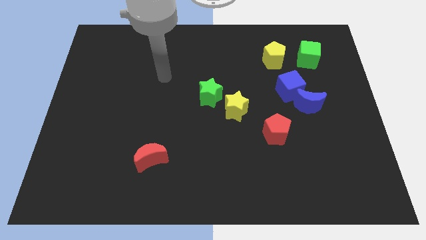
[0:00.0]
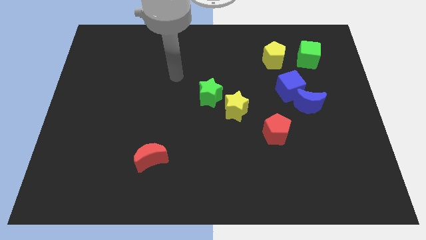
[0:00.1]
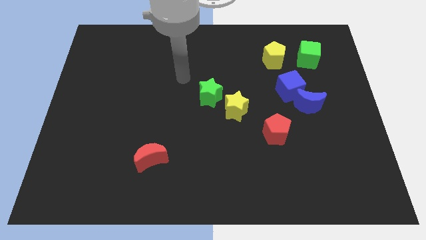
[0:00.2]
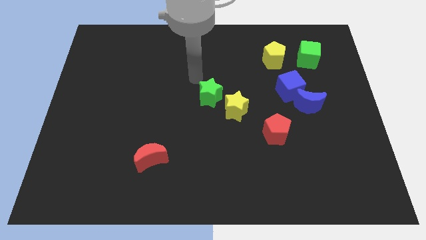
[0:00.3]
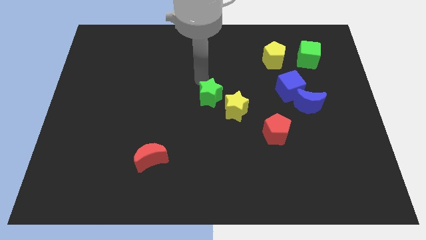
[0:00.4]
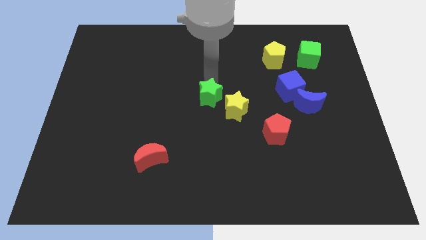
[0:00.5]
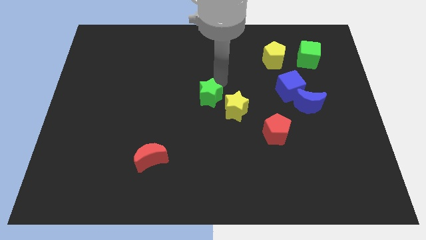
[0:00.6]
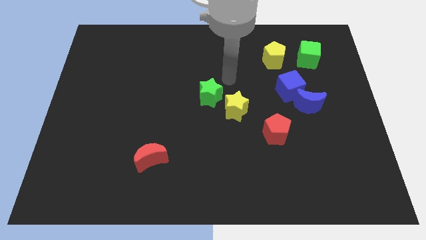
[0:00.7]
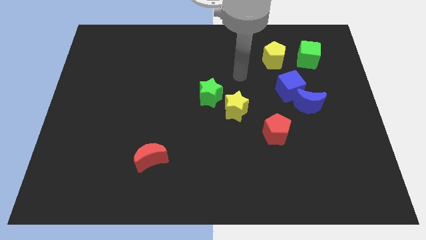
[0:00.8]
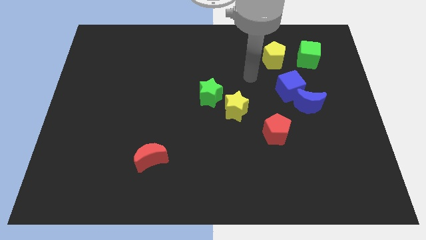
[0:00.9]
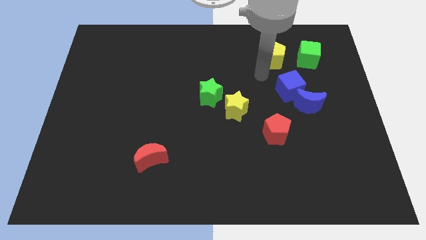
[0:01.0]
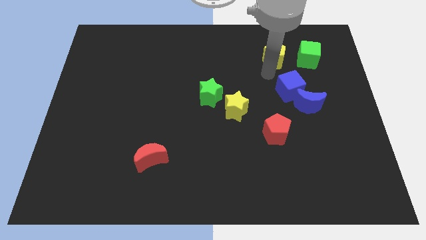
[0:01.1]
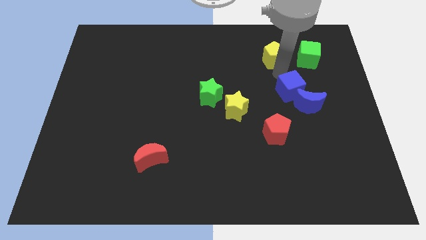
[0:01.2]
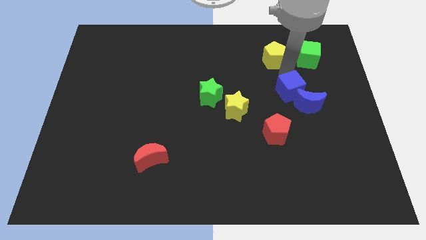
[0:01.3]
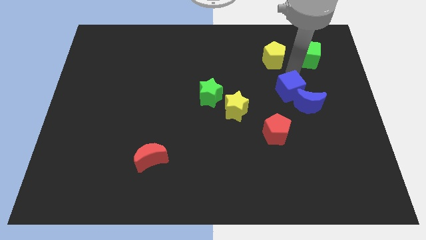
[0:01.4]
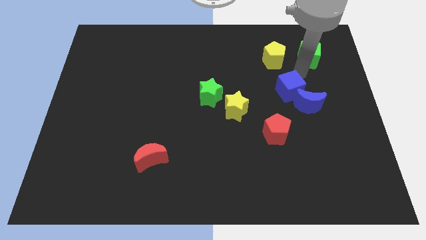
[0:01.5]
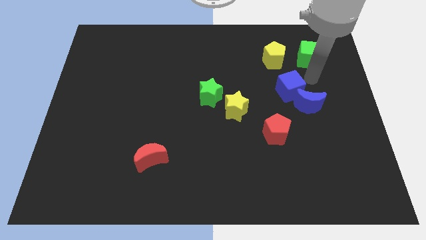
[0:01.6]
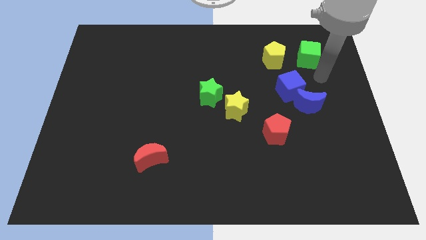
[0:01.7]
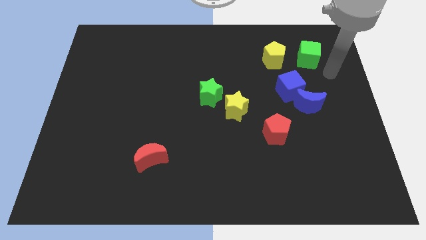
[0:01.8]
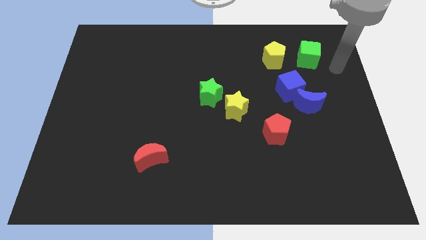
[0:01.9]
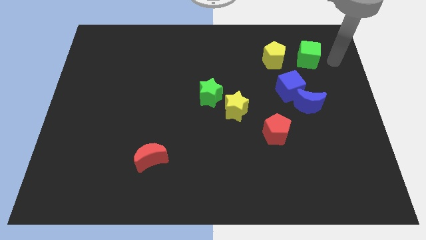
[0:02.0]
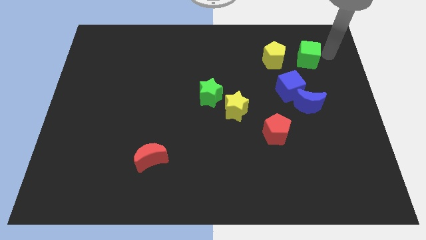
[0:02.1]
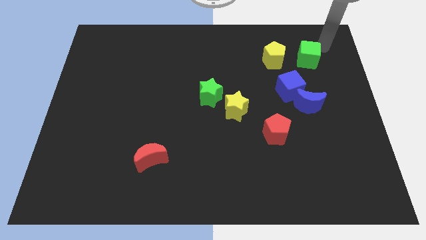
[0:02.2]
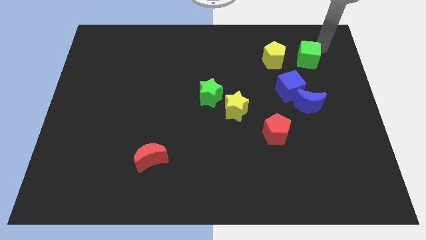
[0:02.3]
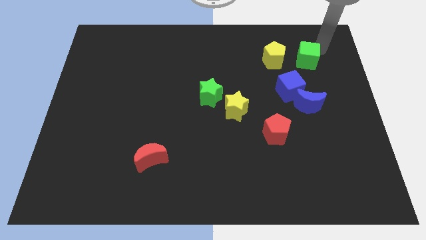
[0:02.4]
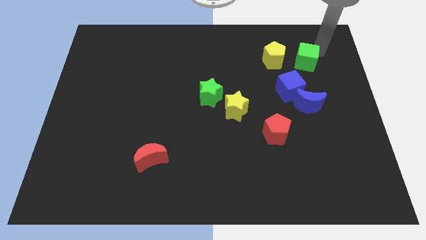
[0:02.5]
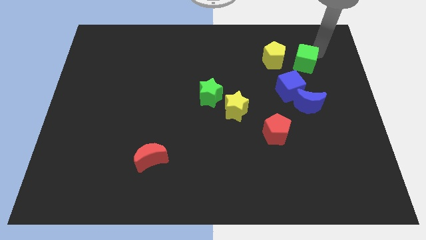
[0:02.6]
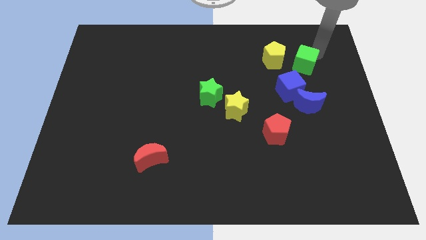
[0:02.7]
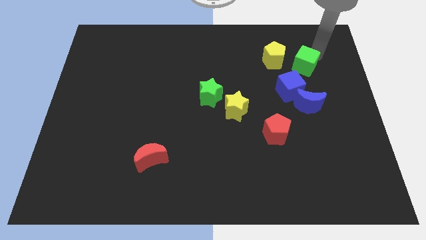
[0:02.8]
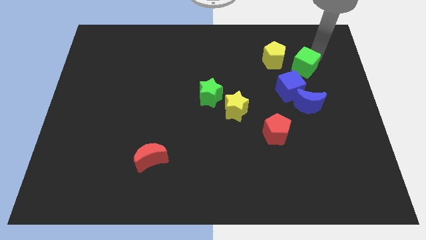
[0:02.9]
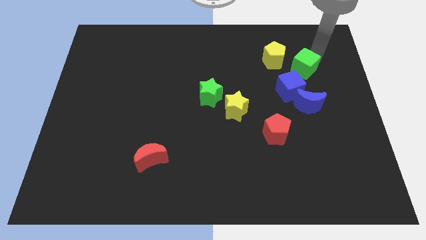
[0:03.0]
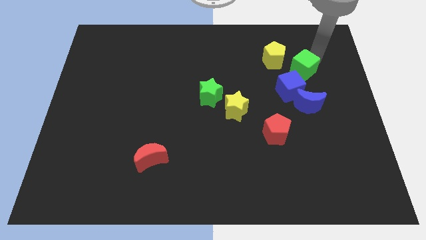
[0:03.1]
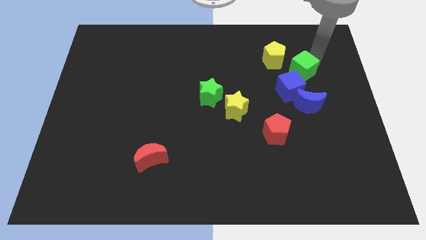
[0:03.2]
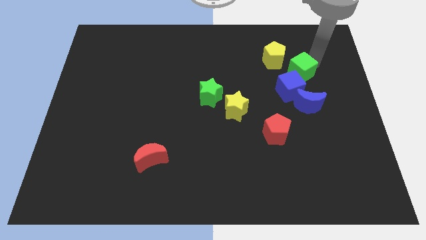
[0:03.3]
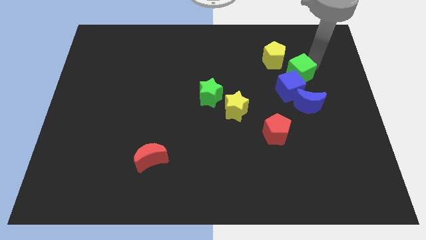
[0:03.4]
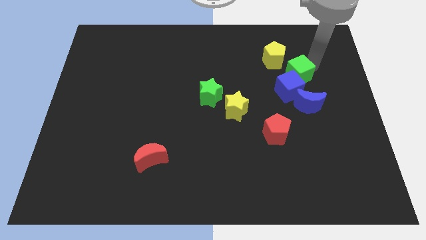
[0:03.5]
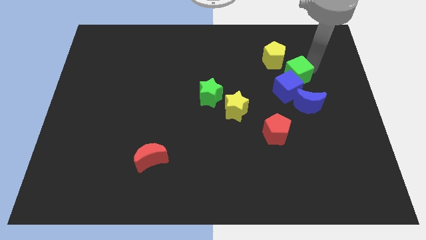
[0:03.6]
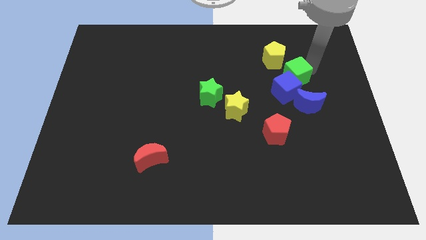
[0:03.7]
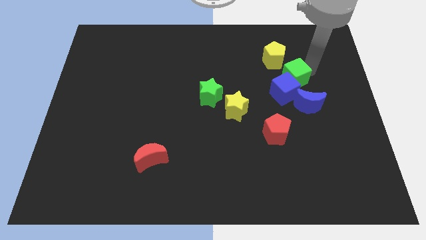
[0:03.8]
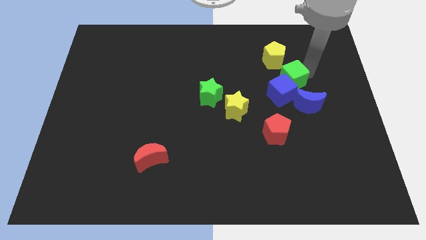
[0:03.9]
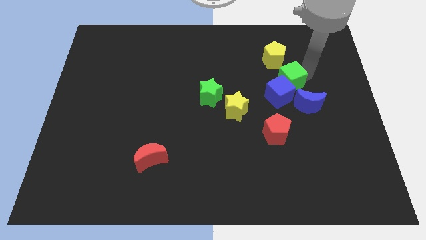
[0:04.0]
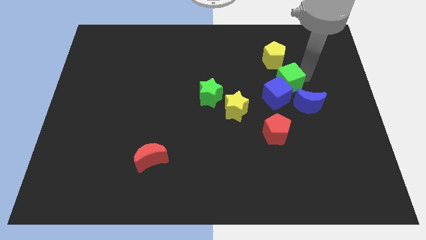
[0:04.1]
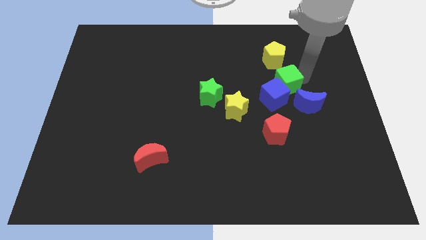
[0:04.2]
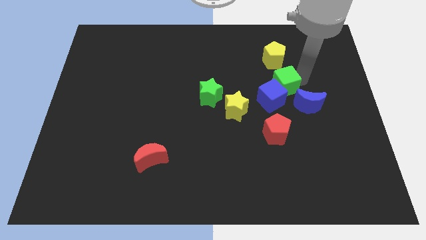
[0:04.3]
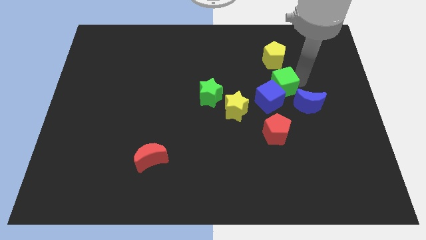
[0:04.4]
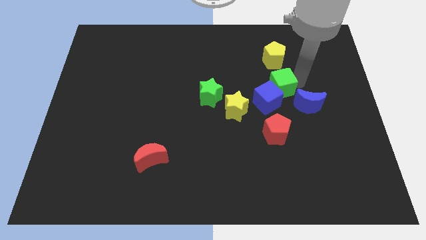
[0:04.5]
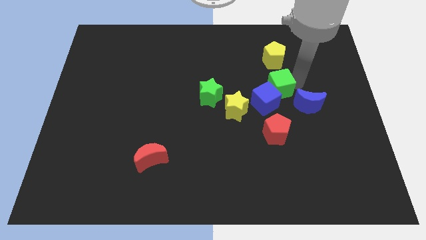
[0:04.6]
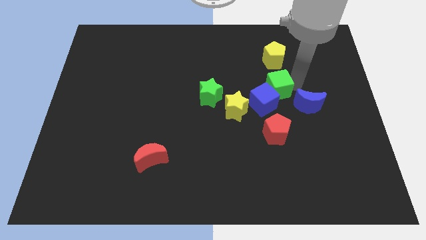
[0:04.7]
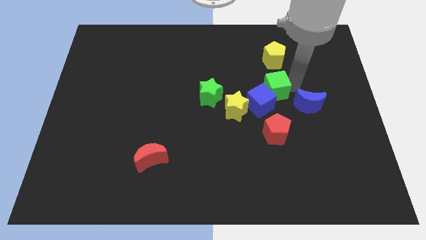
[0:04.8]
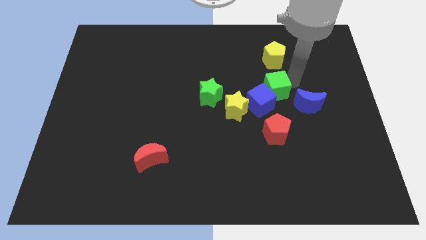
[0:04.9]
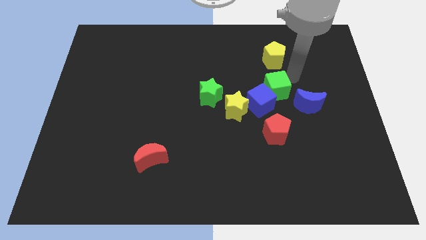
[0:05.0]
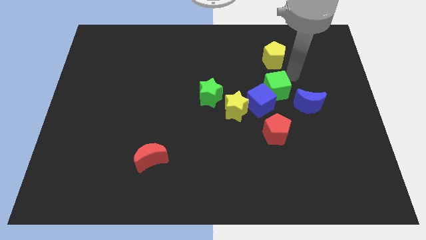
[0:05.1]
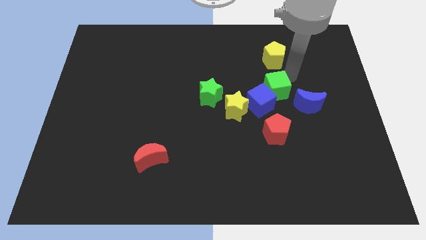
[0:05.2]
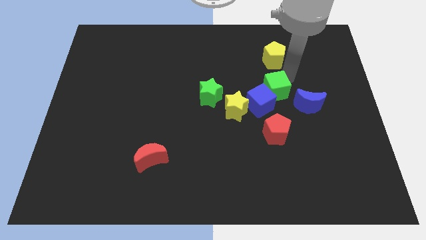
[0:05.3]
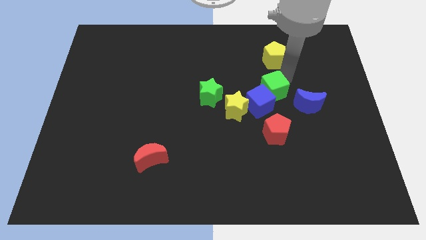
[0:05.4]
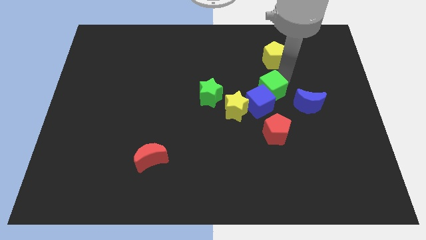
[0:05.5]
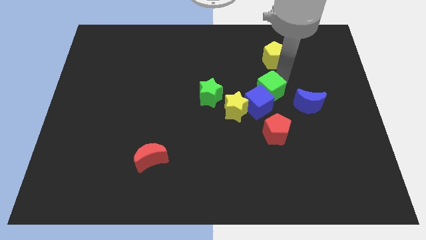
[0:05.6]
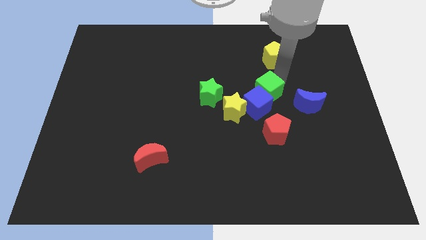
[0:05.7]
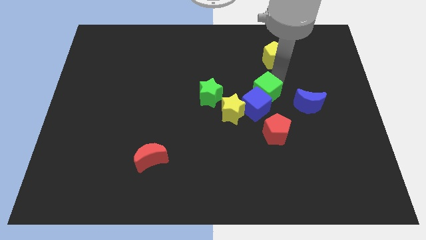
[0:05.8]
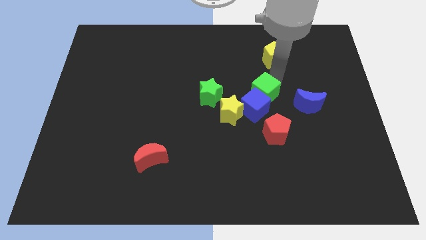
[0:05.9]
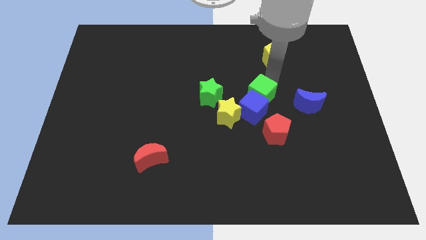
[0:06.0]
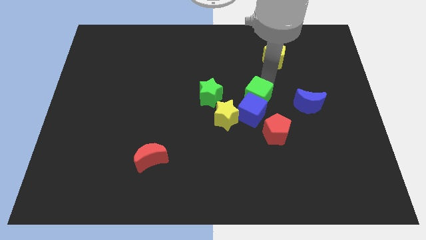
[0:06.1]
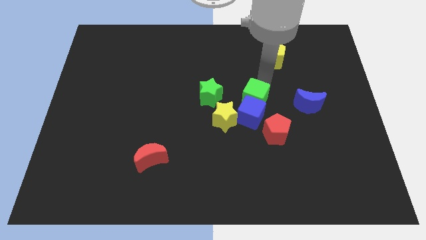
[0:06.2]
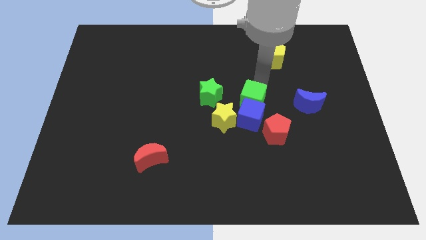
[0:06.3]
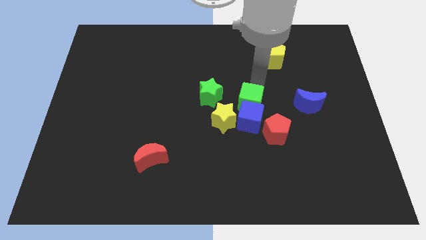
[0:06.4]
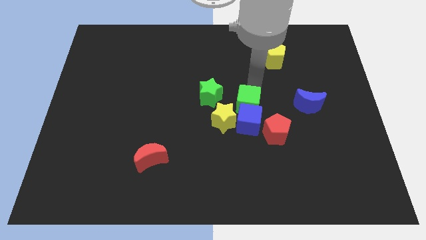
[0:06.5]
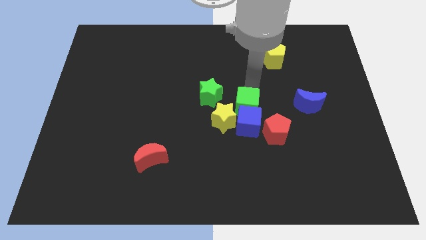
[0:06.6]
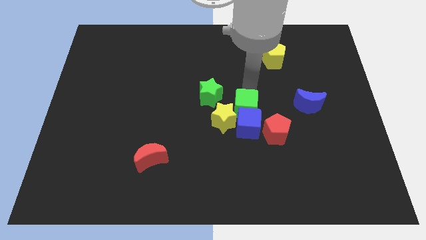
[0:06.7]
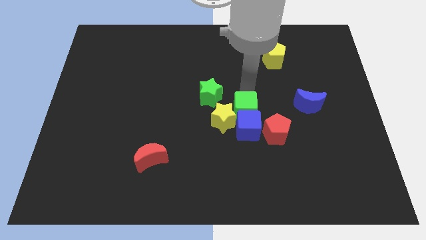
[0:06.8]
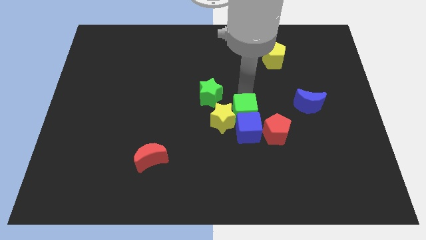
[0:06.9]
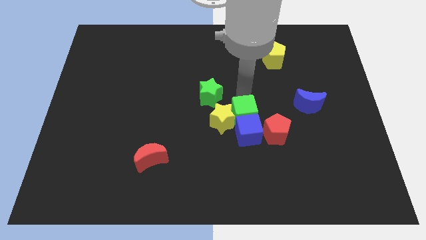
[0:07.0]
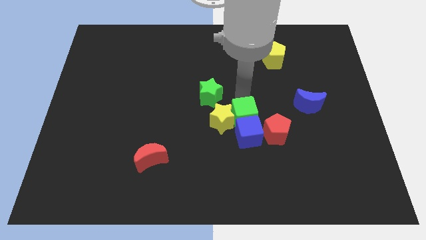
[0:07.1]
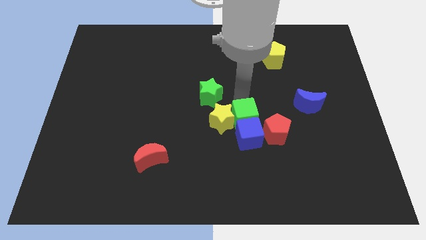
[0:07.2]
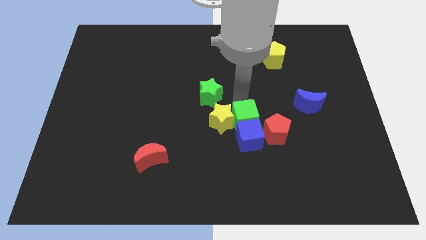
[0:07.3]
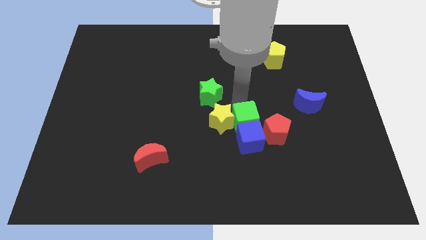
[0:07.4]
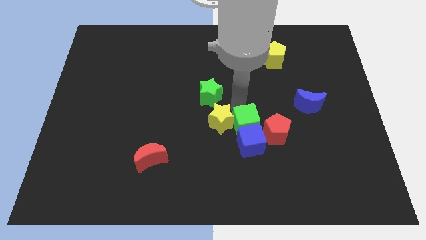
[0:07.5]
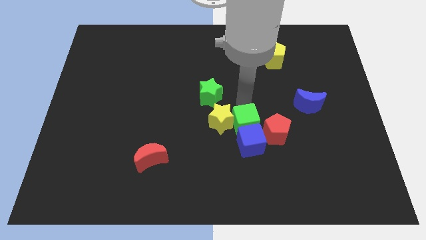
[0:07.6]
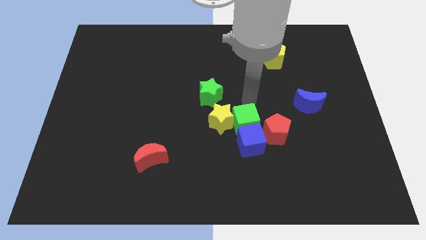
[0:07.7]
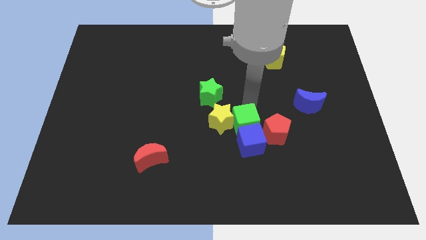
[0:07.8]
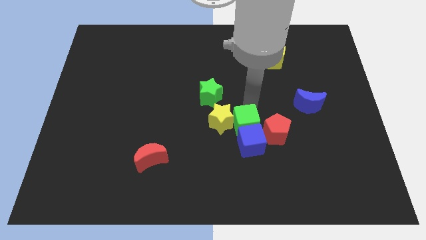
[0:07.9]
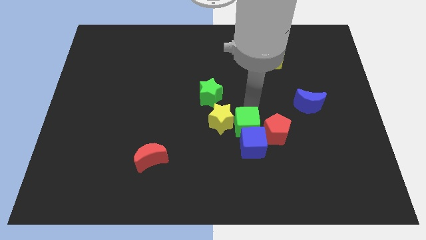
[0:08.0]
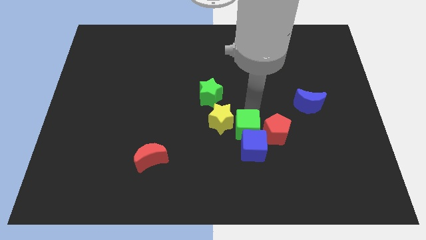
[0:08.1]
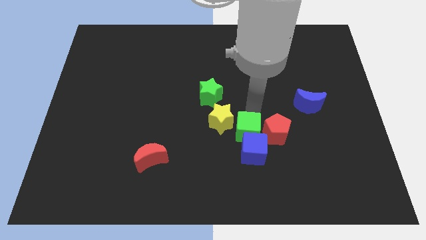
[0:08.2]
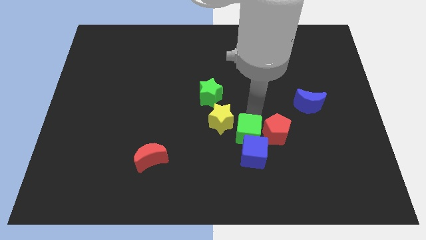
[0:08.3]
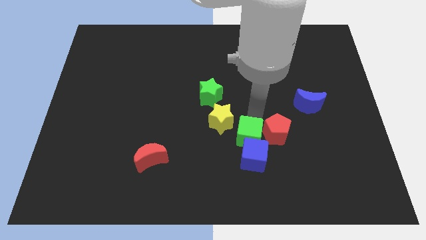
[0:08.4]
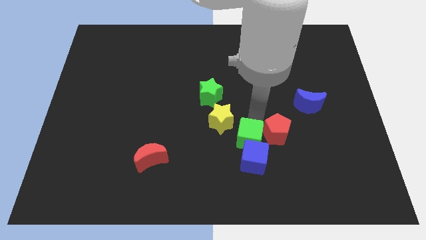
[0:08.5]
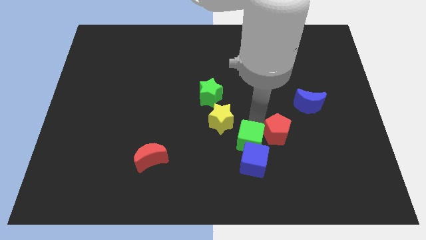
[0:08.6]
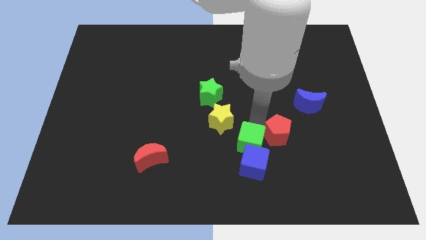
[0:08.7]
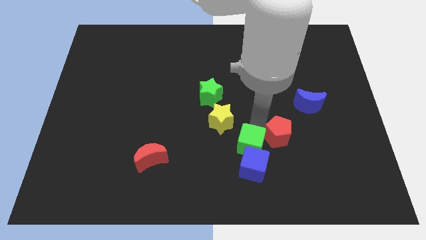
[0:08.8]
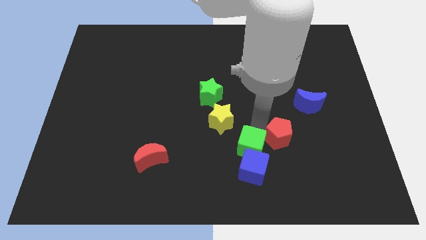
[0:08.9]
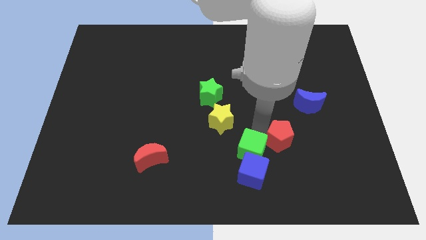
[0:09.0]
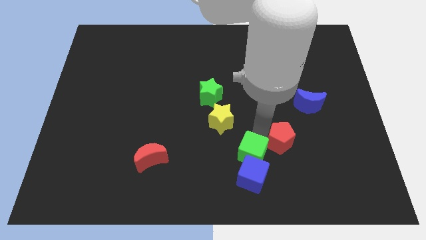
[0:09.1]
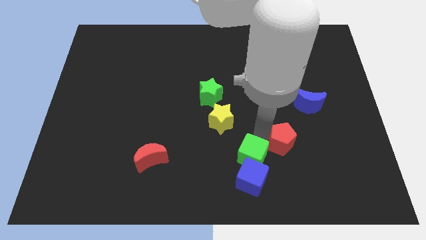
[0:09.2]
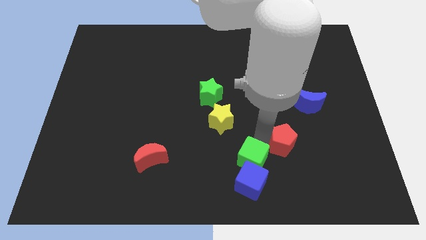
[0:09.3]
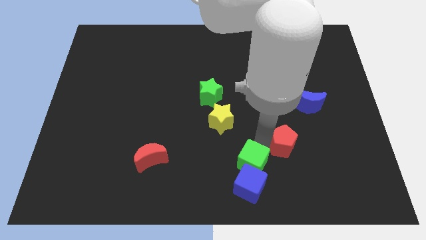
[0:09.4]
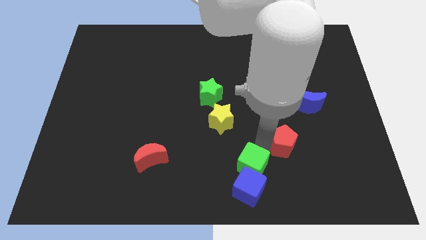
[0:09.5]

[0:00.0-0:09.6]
push the green cube to the bottom side
